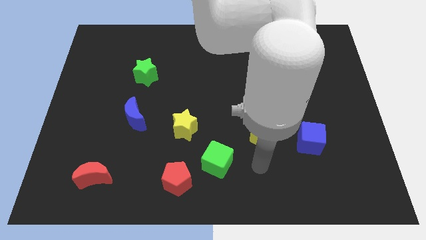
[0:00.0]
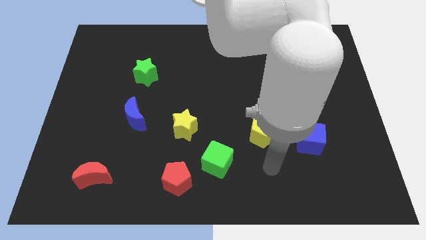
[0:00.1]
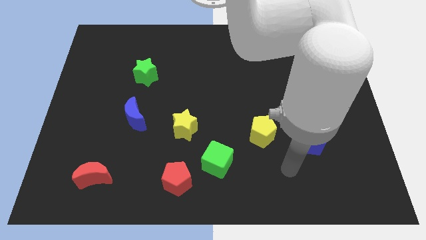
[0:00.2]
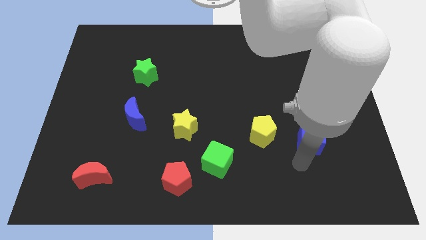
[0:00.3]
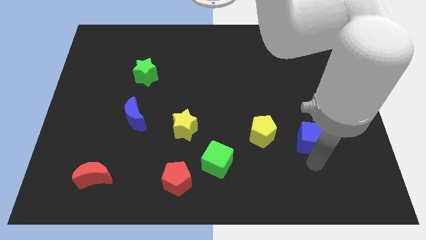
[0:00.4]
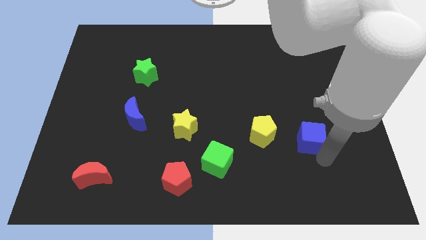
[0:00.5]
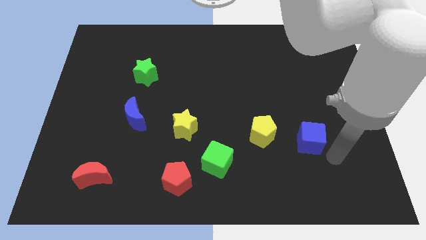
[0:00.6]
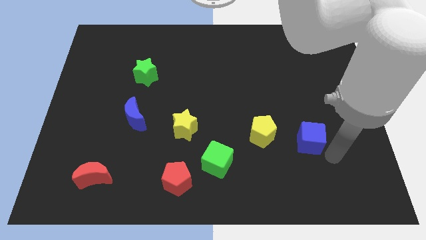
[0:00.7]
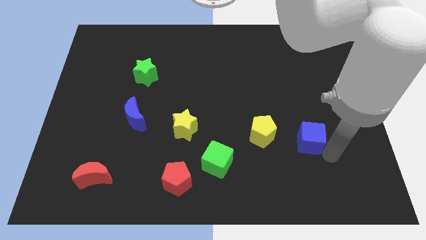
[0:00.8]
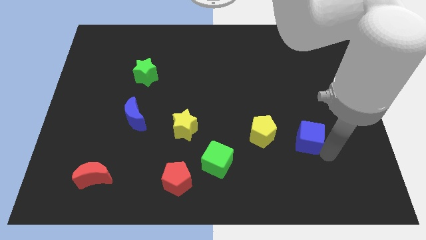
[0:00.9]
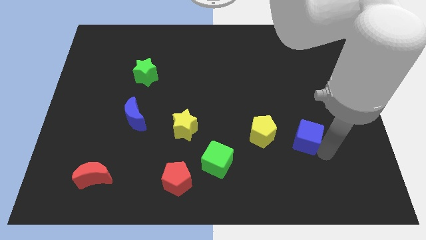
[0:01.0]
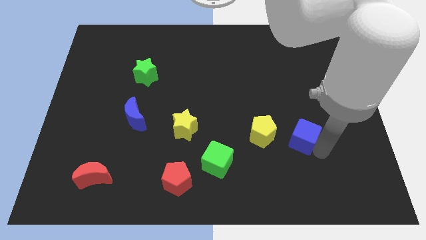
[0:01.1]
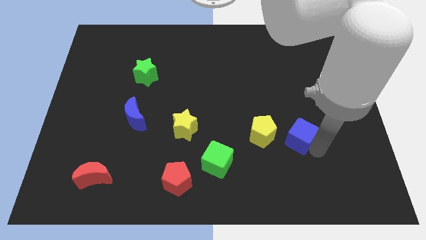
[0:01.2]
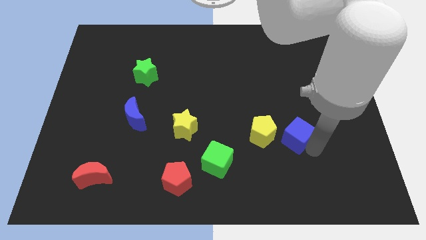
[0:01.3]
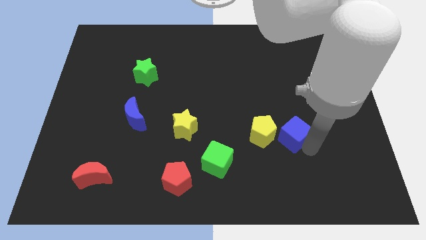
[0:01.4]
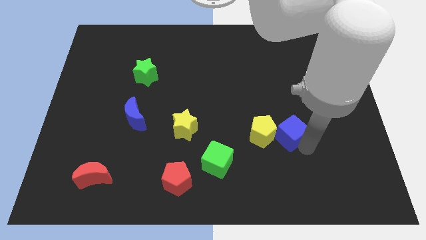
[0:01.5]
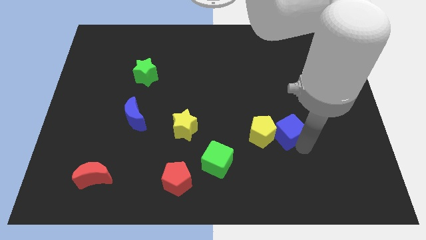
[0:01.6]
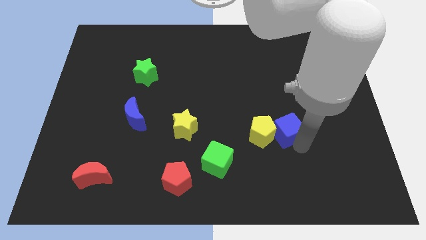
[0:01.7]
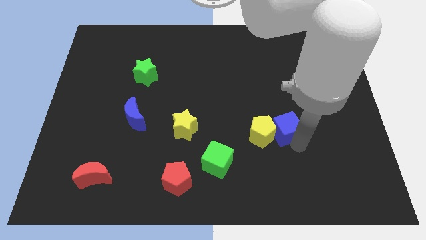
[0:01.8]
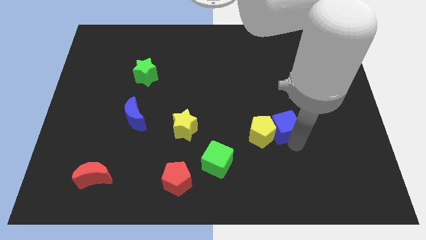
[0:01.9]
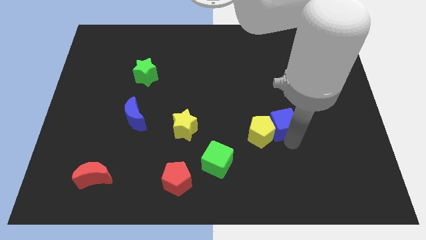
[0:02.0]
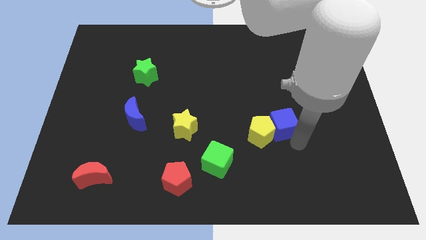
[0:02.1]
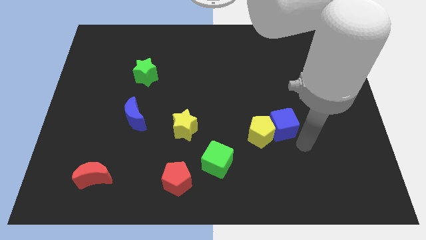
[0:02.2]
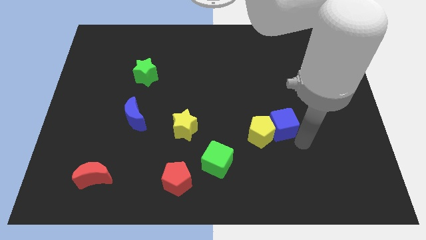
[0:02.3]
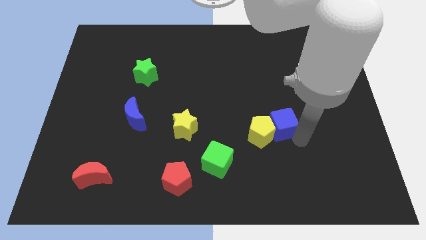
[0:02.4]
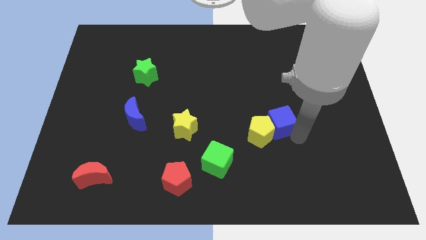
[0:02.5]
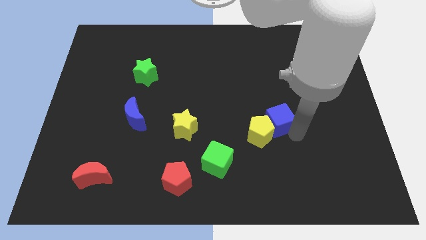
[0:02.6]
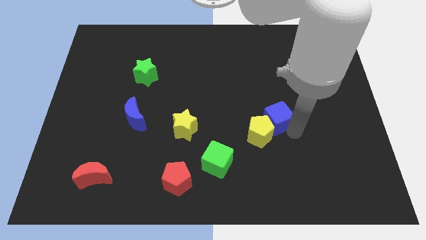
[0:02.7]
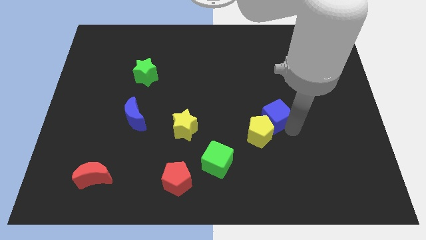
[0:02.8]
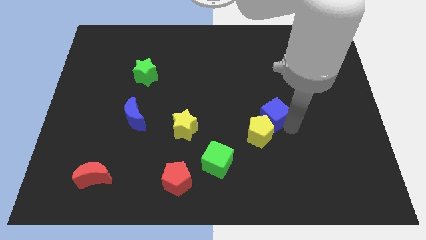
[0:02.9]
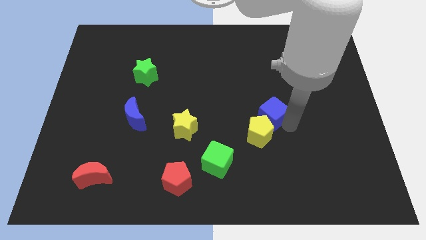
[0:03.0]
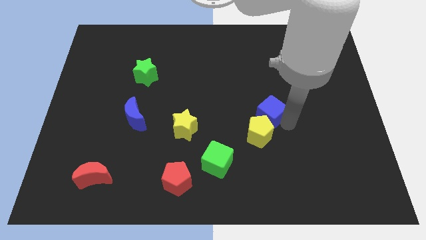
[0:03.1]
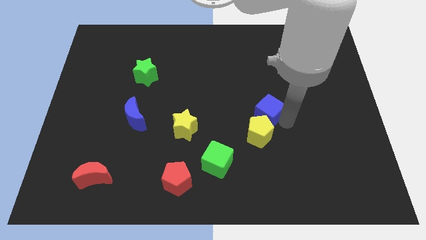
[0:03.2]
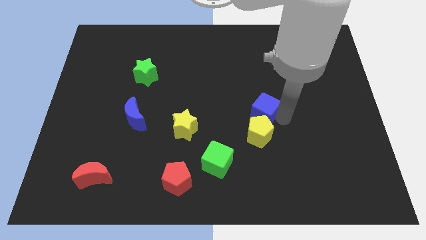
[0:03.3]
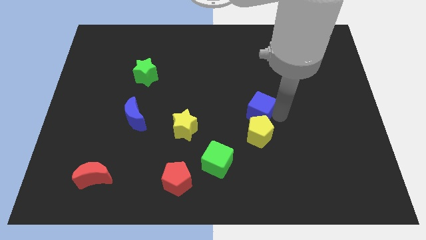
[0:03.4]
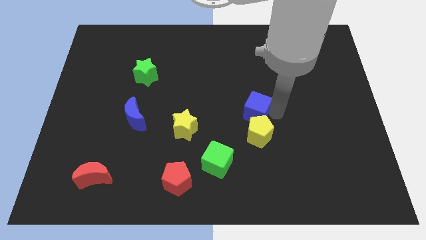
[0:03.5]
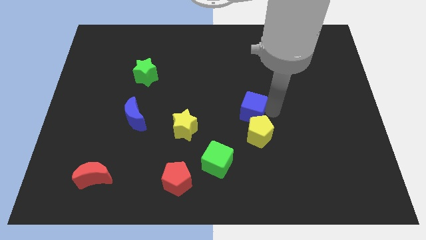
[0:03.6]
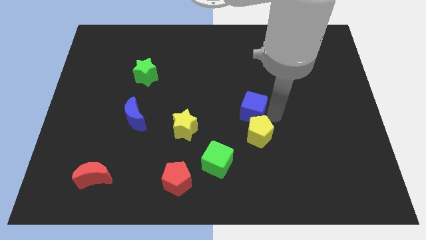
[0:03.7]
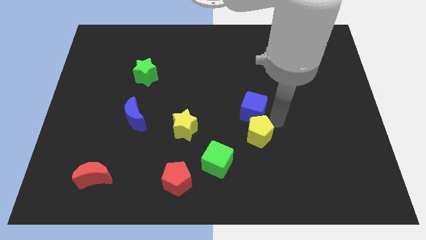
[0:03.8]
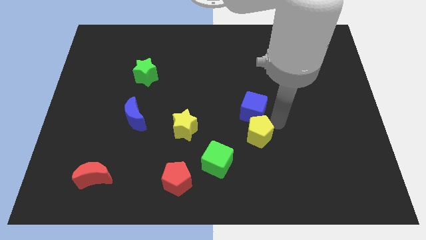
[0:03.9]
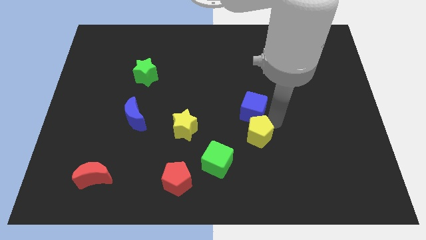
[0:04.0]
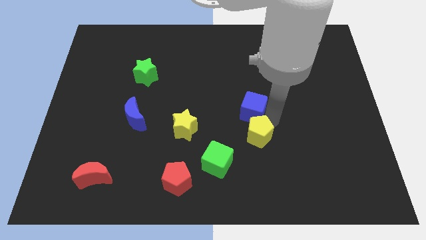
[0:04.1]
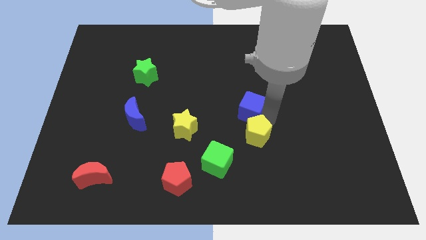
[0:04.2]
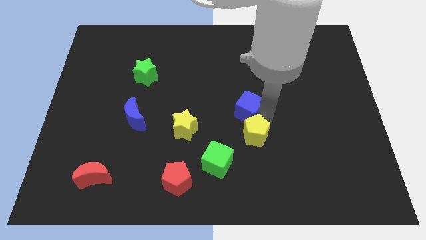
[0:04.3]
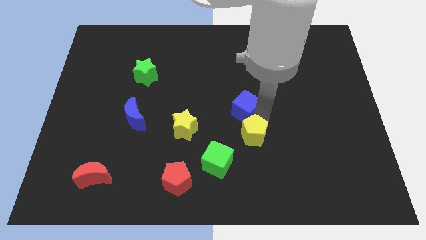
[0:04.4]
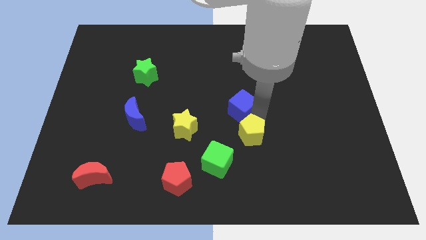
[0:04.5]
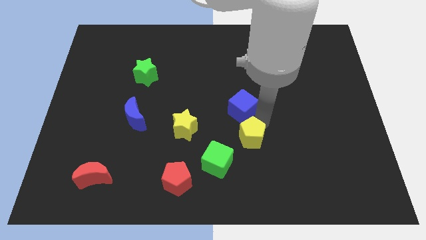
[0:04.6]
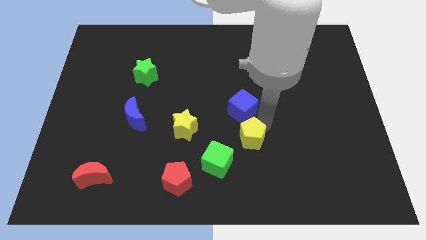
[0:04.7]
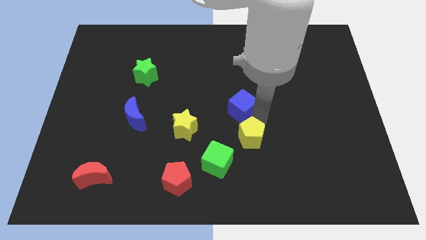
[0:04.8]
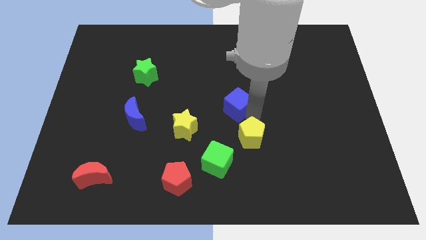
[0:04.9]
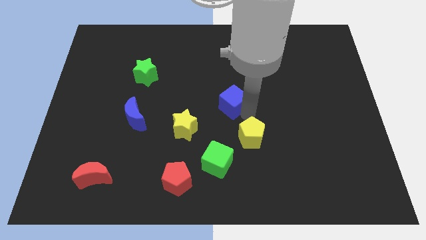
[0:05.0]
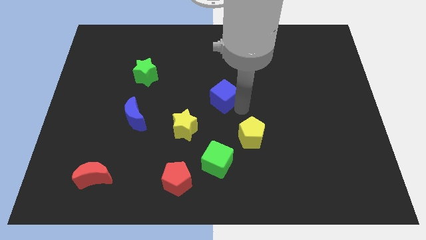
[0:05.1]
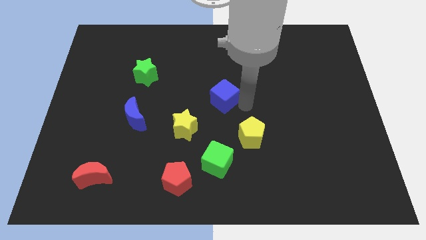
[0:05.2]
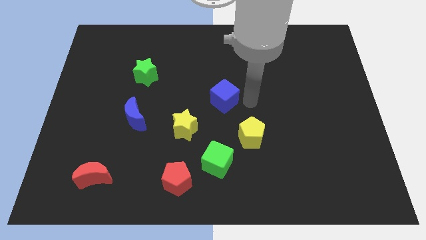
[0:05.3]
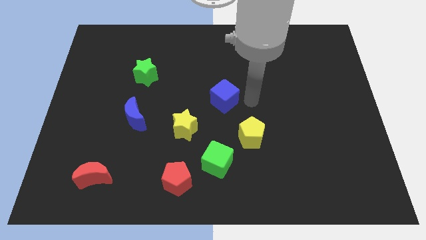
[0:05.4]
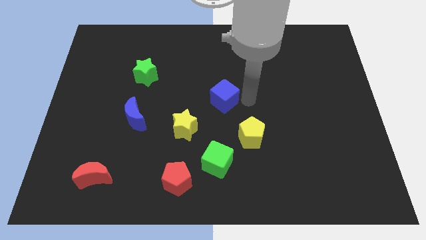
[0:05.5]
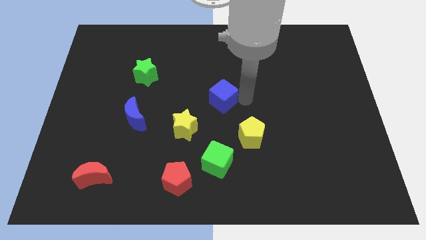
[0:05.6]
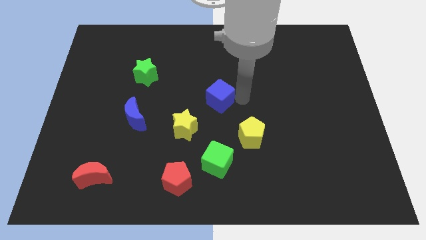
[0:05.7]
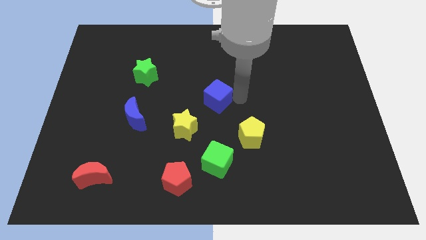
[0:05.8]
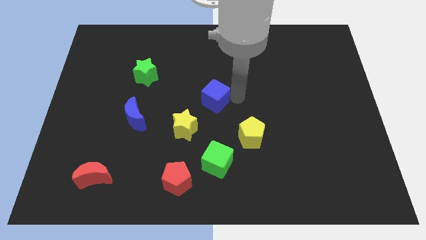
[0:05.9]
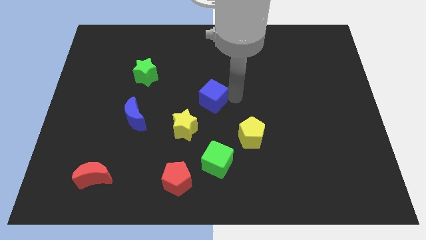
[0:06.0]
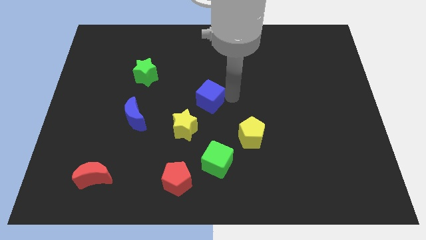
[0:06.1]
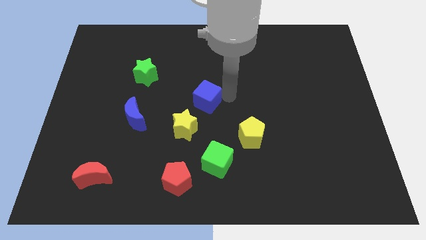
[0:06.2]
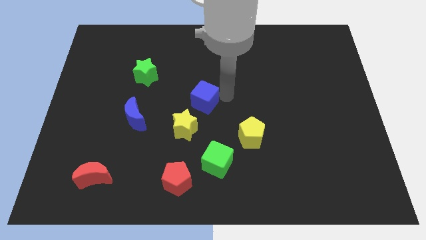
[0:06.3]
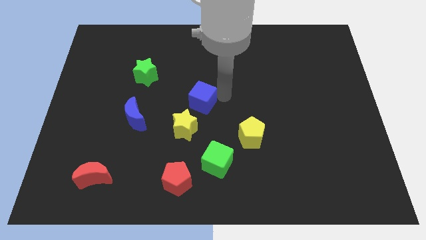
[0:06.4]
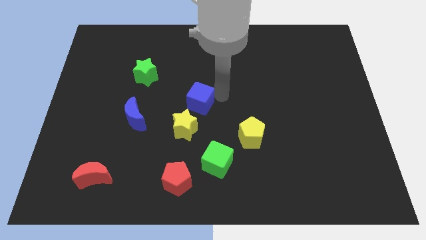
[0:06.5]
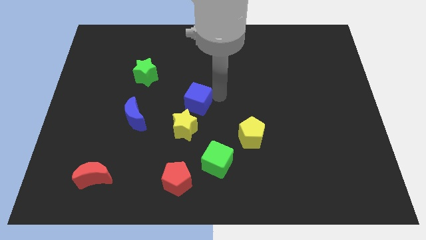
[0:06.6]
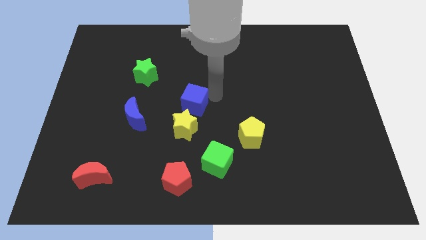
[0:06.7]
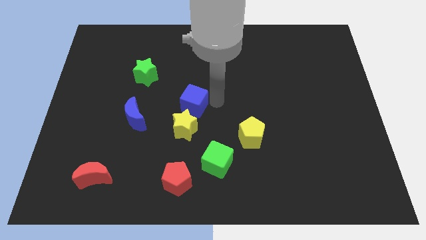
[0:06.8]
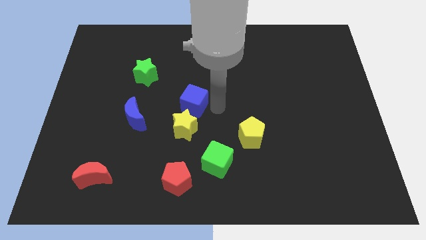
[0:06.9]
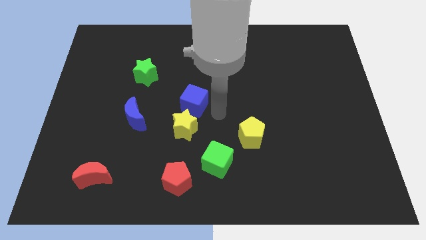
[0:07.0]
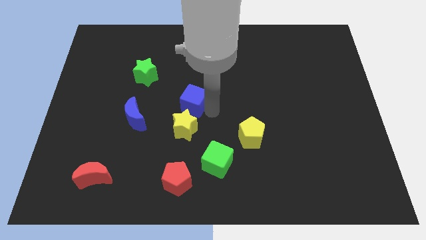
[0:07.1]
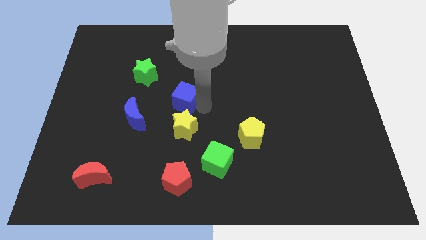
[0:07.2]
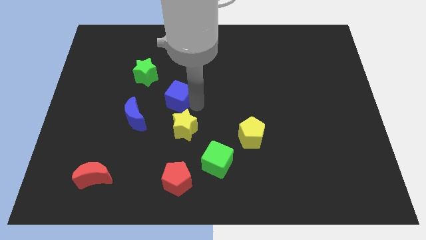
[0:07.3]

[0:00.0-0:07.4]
put the blue cube to the bottom right side of the green star

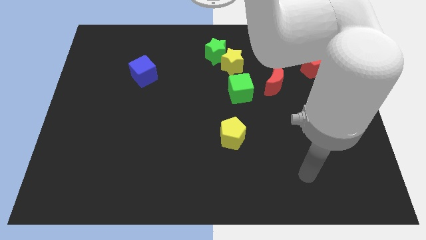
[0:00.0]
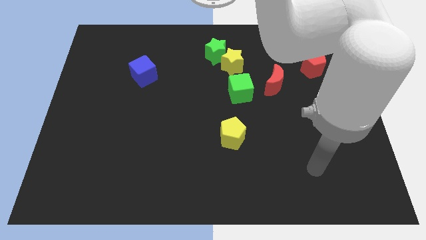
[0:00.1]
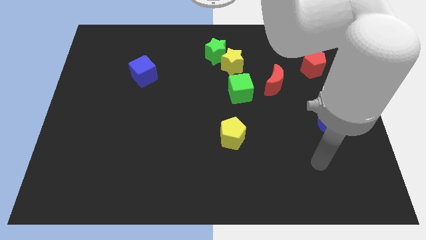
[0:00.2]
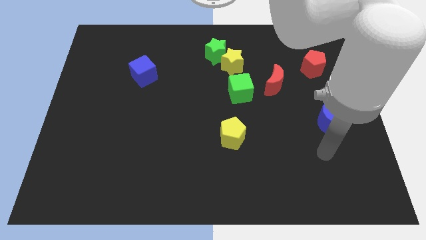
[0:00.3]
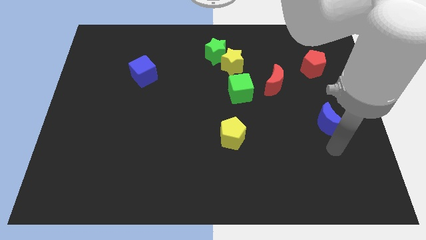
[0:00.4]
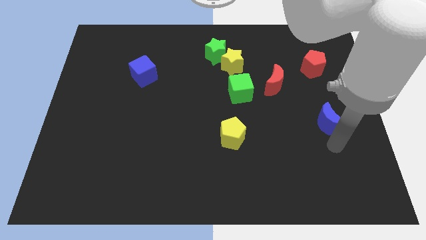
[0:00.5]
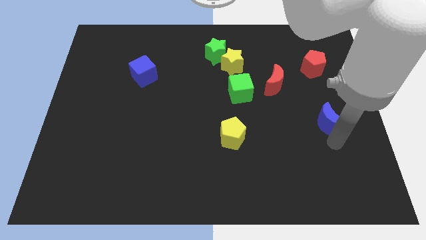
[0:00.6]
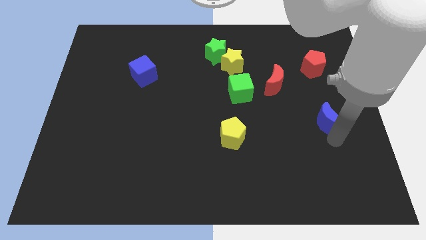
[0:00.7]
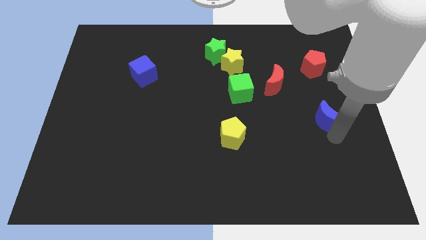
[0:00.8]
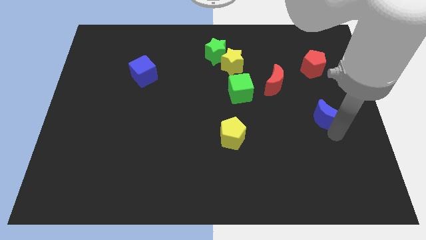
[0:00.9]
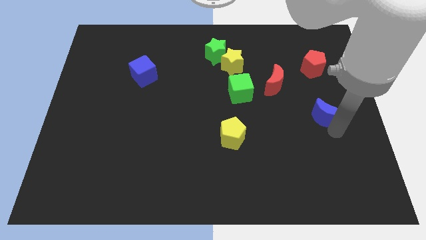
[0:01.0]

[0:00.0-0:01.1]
put the blue moon below the red pentagon
